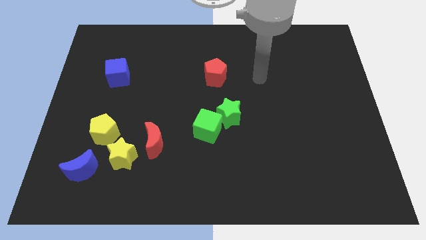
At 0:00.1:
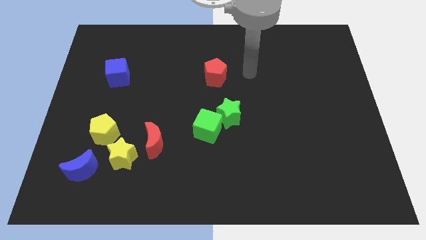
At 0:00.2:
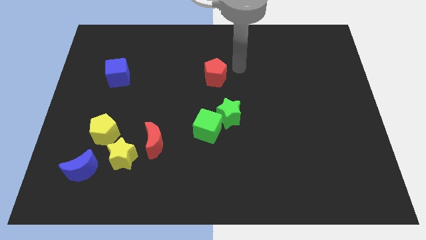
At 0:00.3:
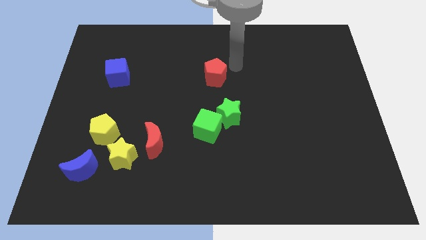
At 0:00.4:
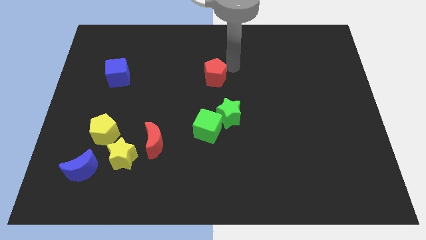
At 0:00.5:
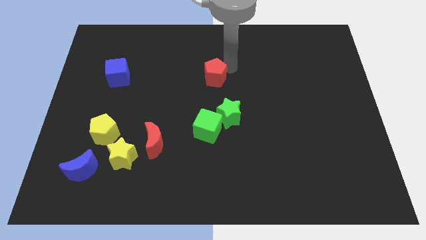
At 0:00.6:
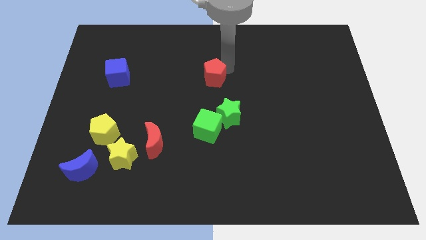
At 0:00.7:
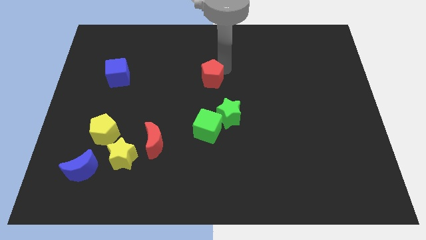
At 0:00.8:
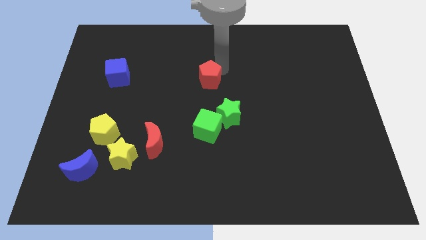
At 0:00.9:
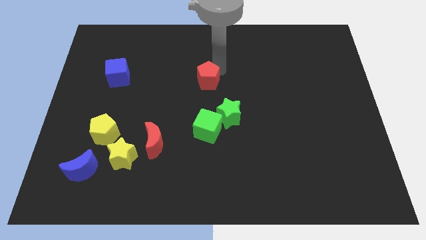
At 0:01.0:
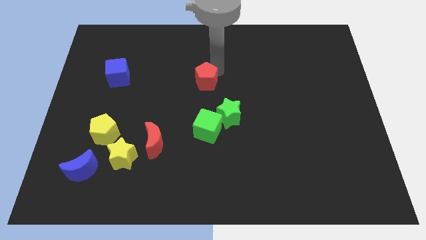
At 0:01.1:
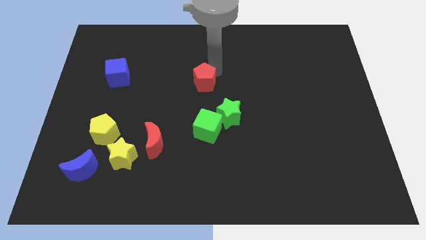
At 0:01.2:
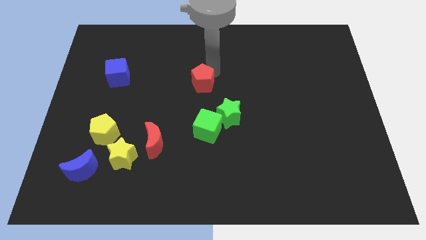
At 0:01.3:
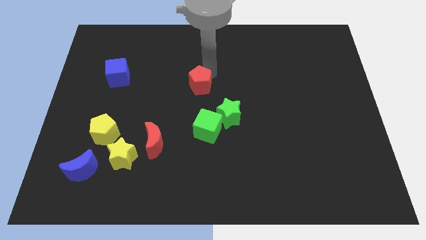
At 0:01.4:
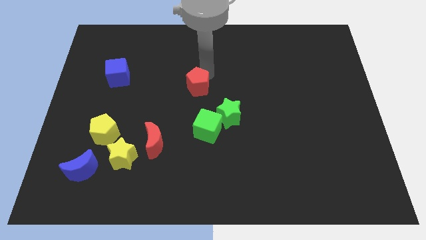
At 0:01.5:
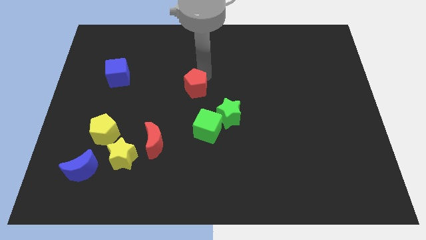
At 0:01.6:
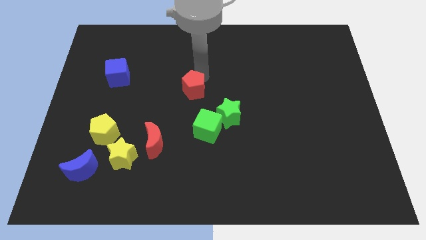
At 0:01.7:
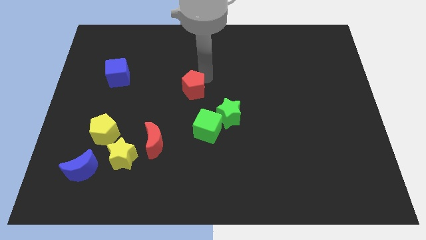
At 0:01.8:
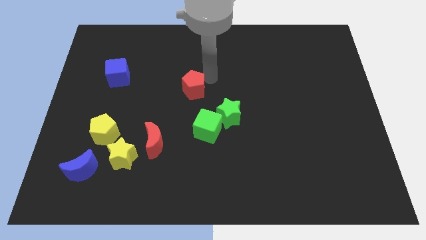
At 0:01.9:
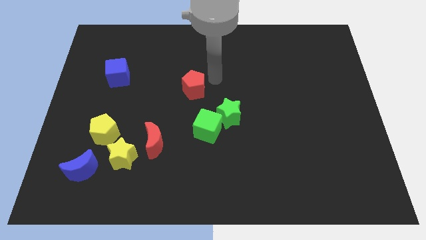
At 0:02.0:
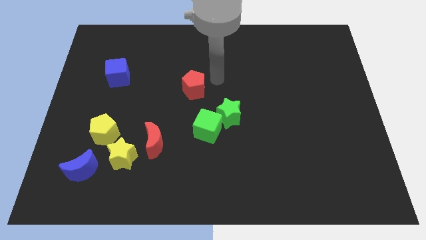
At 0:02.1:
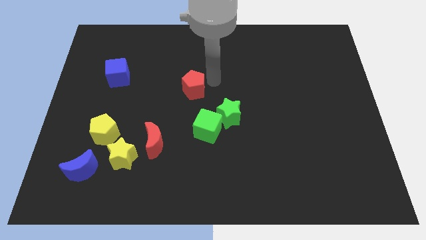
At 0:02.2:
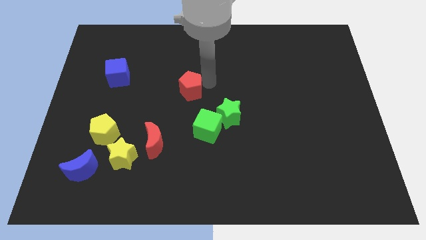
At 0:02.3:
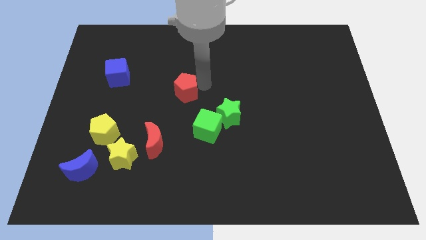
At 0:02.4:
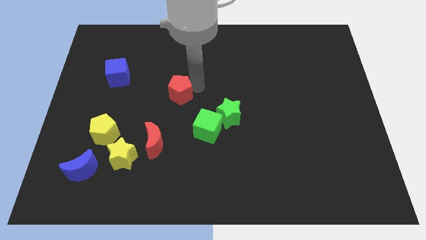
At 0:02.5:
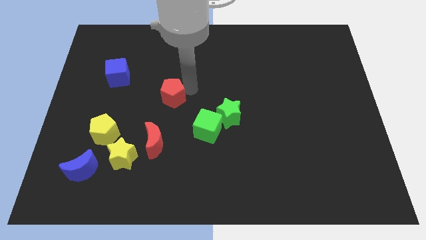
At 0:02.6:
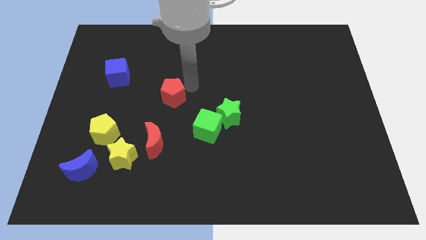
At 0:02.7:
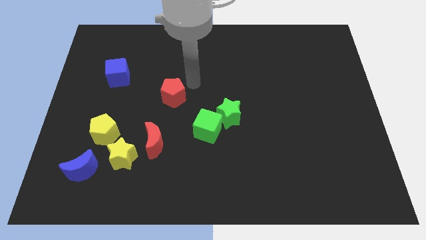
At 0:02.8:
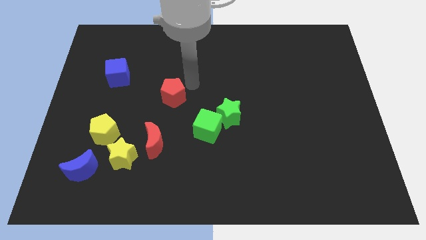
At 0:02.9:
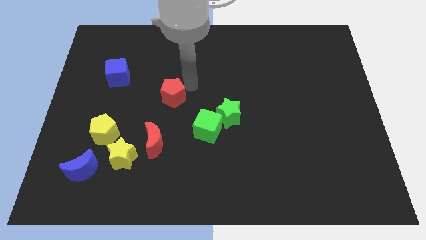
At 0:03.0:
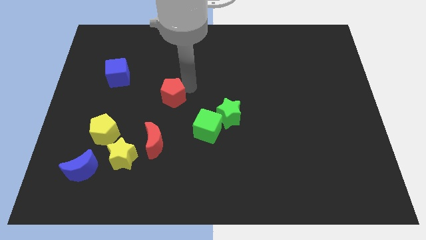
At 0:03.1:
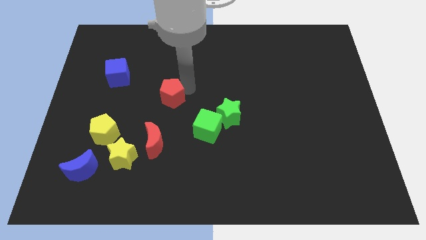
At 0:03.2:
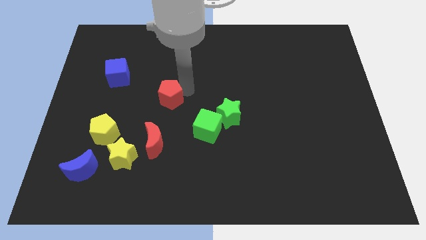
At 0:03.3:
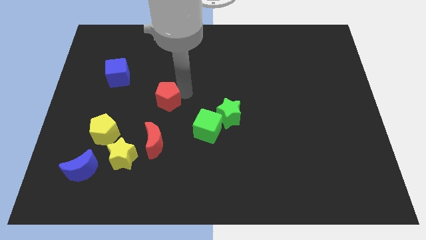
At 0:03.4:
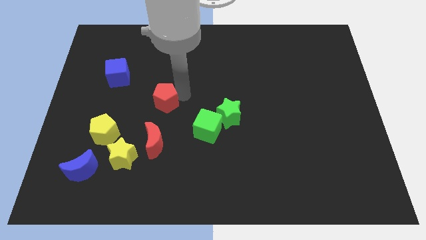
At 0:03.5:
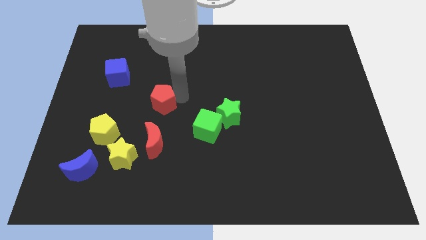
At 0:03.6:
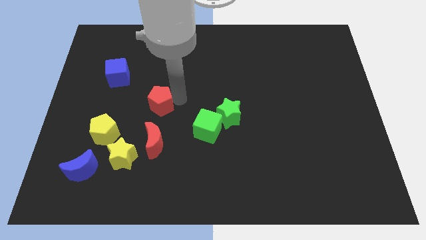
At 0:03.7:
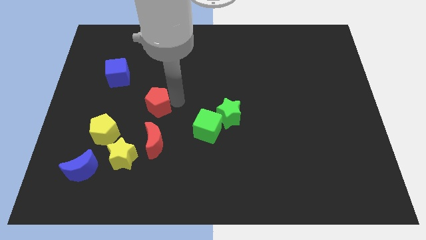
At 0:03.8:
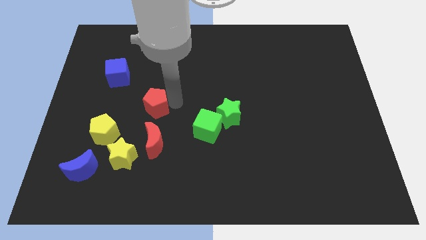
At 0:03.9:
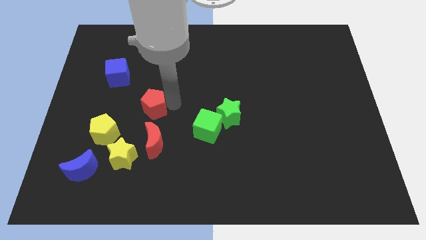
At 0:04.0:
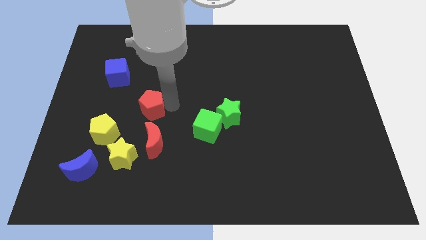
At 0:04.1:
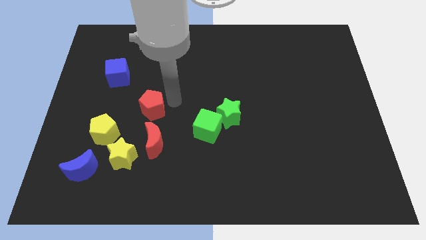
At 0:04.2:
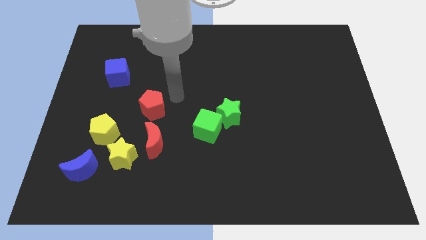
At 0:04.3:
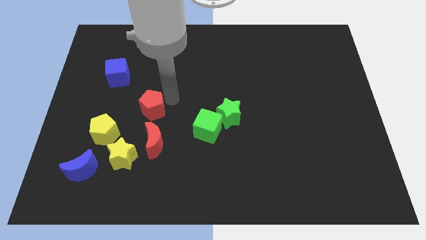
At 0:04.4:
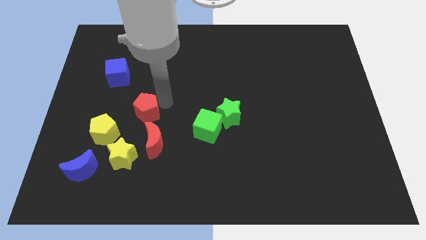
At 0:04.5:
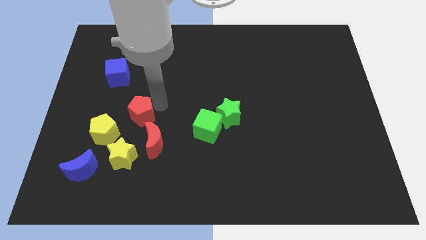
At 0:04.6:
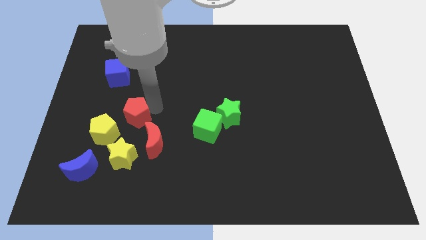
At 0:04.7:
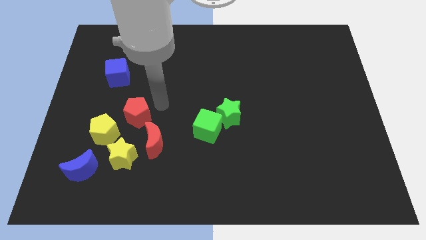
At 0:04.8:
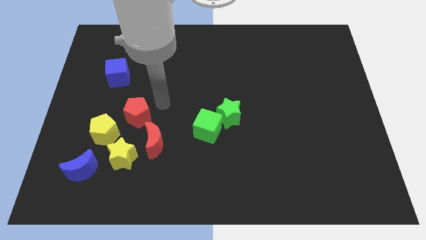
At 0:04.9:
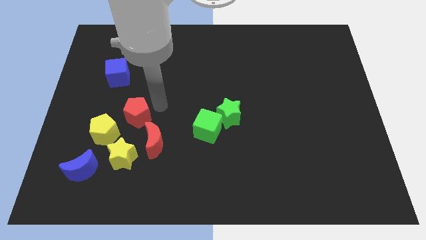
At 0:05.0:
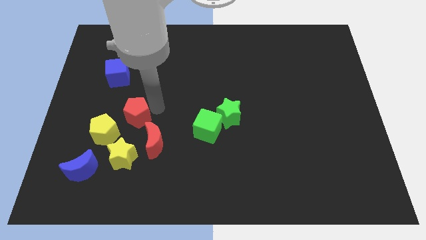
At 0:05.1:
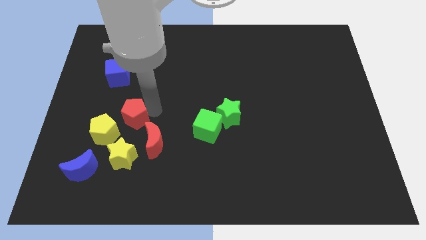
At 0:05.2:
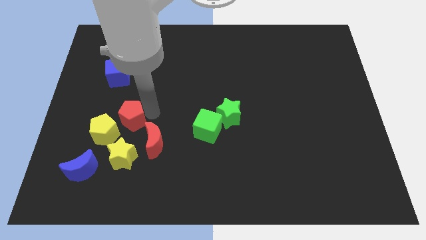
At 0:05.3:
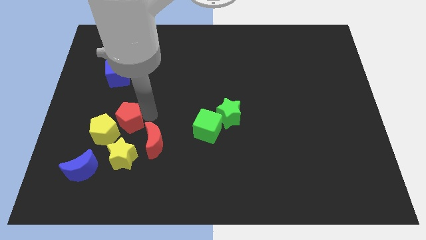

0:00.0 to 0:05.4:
put the red pentagon close to the yellow pentagon

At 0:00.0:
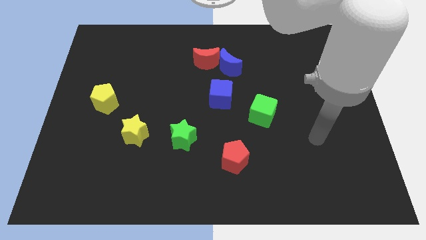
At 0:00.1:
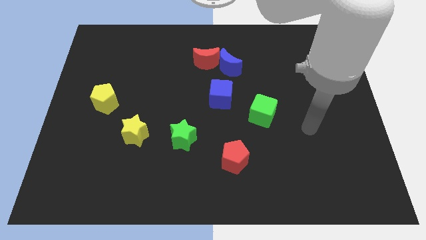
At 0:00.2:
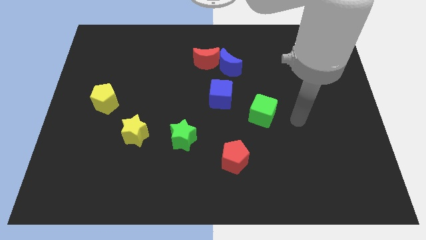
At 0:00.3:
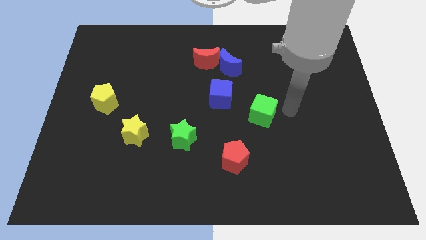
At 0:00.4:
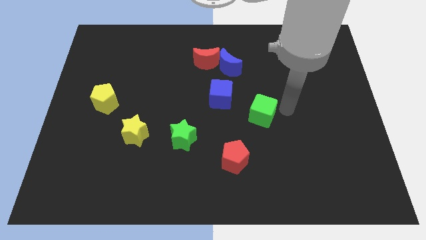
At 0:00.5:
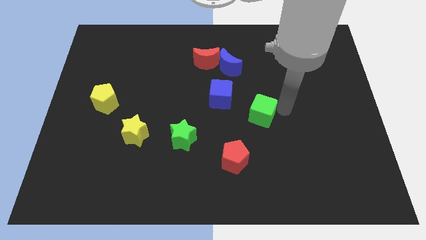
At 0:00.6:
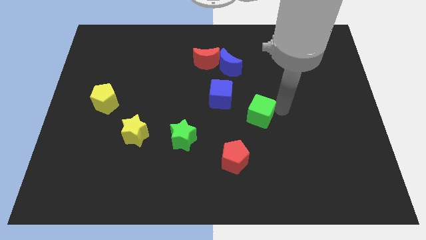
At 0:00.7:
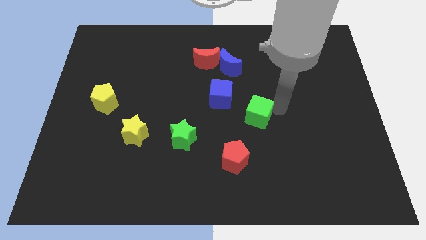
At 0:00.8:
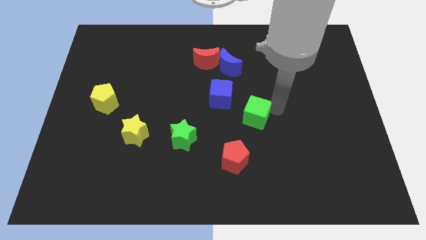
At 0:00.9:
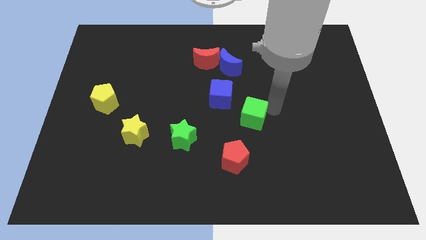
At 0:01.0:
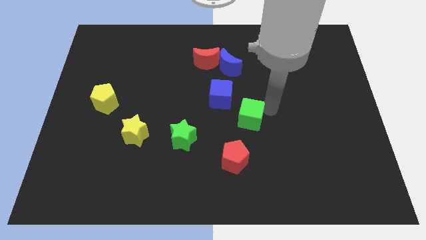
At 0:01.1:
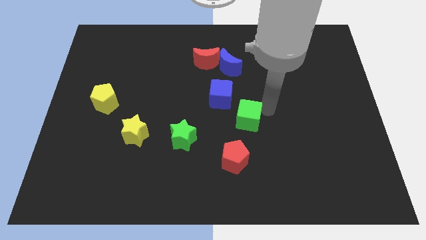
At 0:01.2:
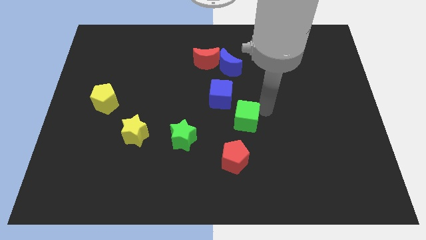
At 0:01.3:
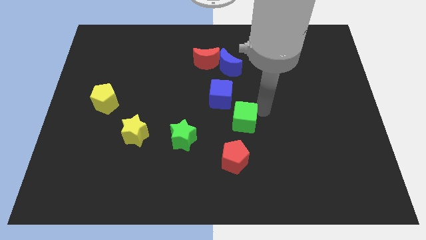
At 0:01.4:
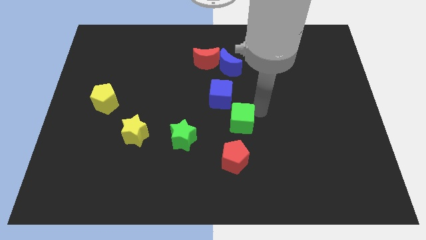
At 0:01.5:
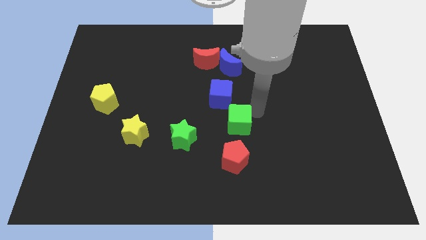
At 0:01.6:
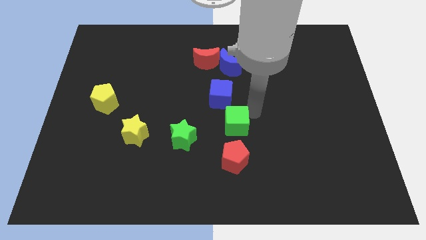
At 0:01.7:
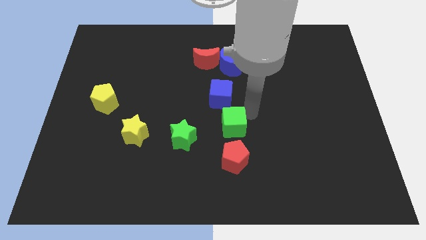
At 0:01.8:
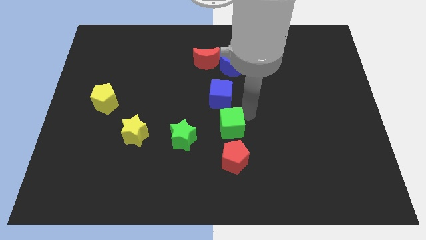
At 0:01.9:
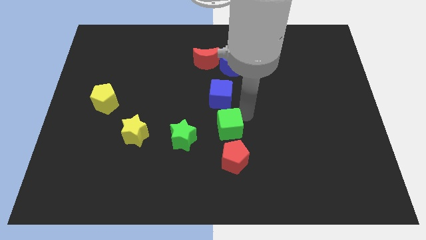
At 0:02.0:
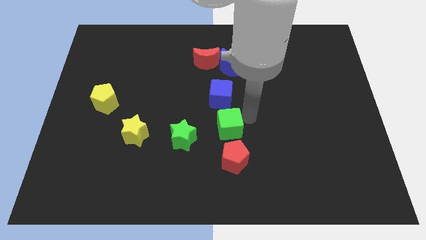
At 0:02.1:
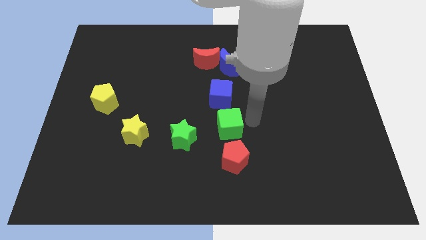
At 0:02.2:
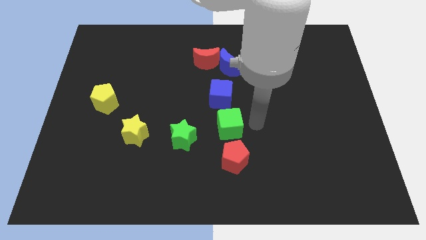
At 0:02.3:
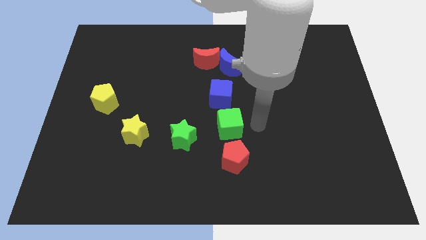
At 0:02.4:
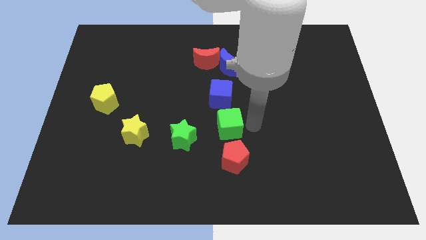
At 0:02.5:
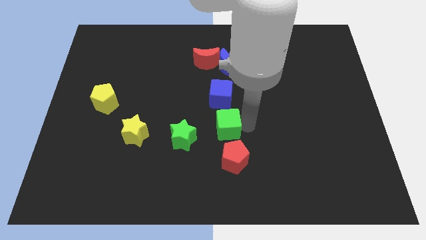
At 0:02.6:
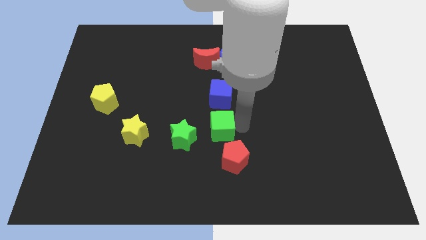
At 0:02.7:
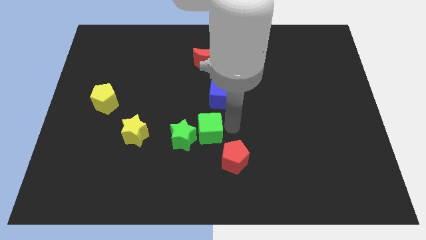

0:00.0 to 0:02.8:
put the green cube towards the green star
